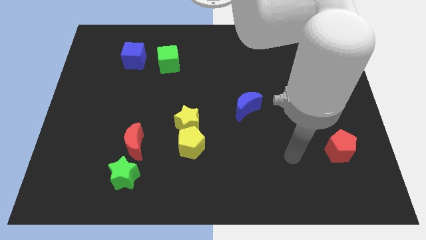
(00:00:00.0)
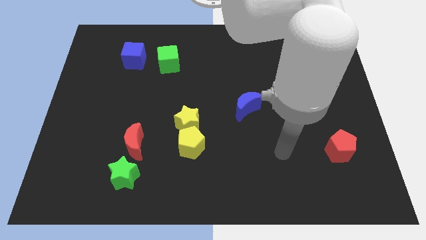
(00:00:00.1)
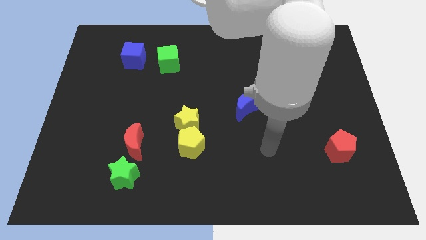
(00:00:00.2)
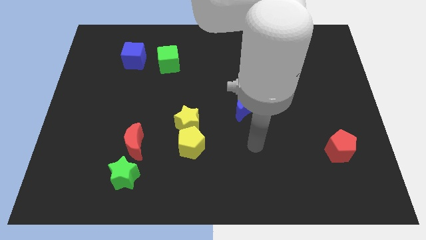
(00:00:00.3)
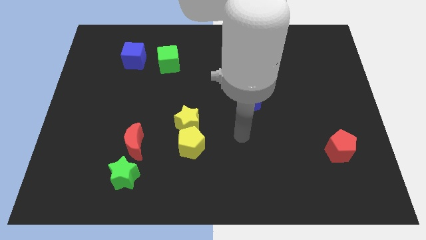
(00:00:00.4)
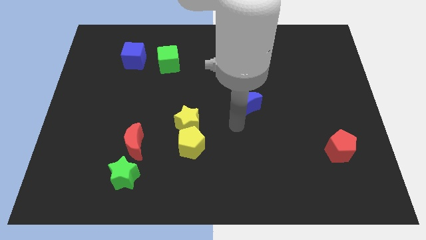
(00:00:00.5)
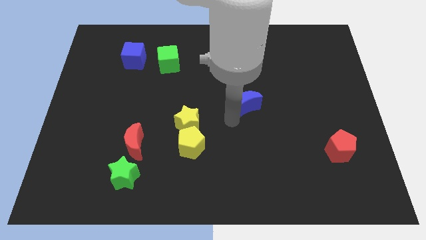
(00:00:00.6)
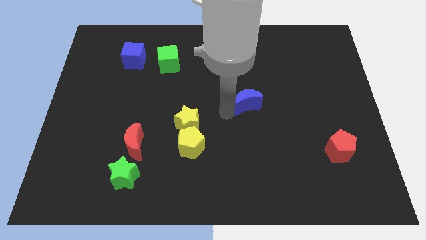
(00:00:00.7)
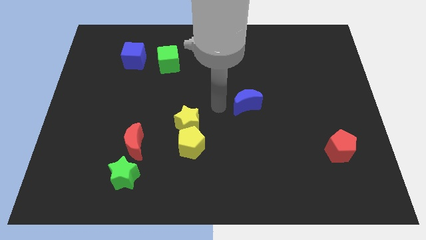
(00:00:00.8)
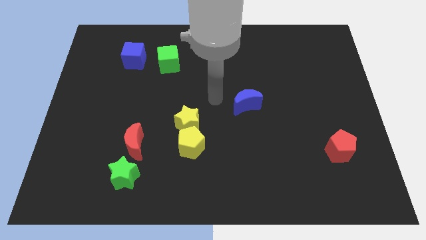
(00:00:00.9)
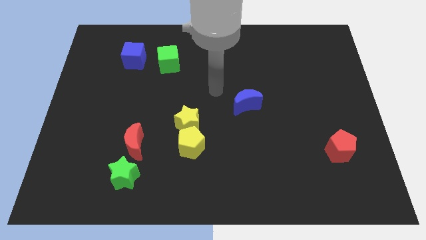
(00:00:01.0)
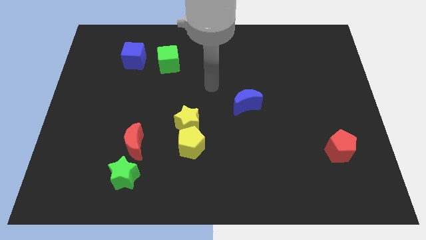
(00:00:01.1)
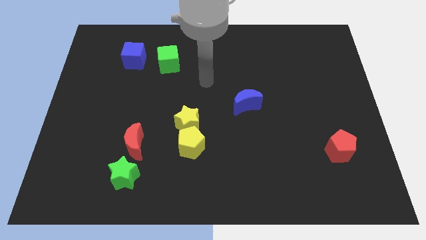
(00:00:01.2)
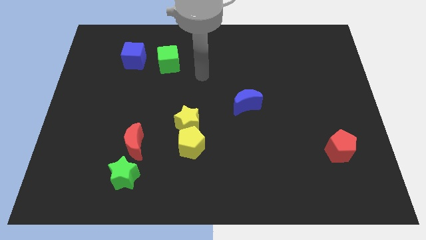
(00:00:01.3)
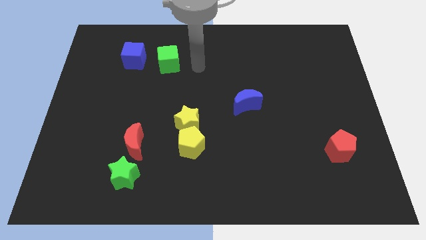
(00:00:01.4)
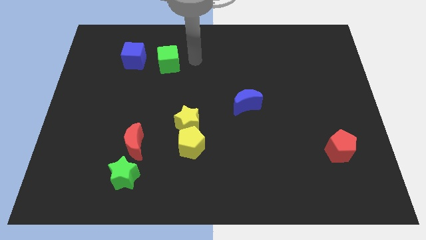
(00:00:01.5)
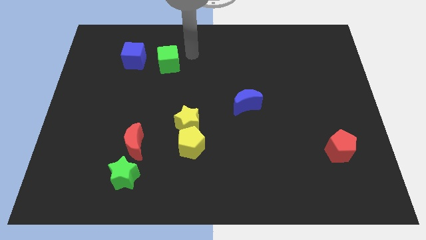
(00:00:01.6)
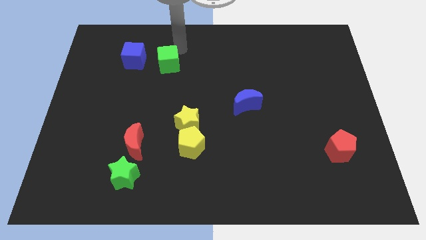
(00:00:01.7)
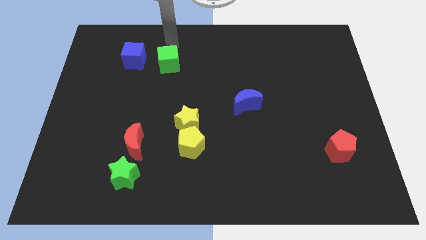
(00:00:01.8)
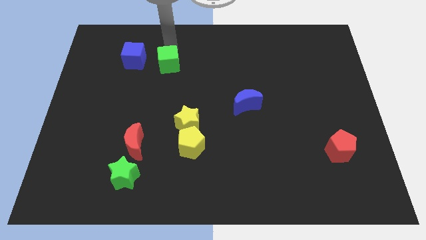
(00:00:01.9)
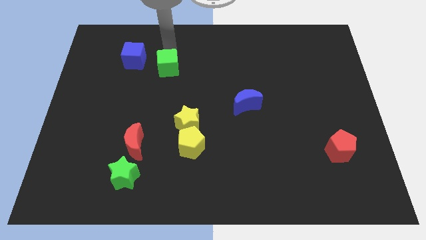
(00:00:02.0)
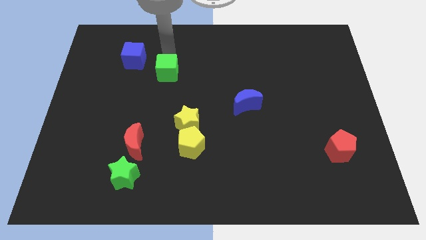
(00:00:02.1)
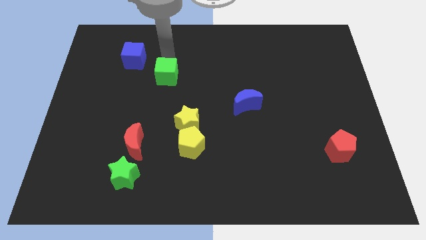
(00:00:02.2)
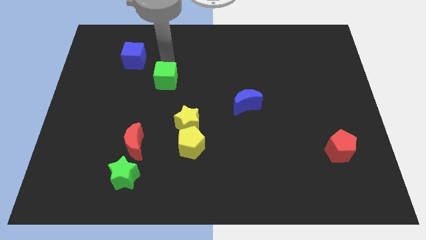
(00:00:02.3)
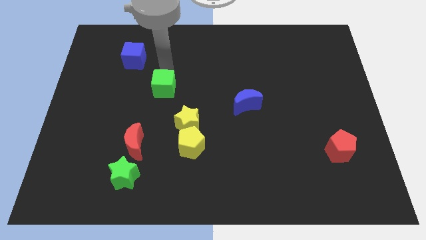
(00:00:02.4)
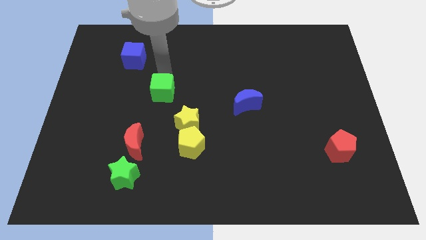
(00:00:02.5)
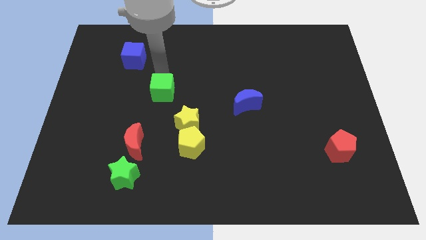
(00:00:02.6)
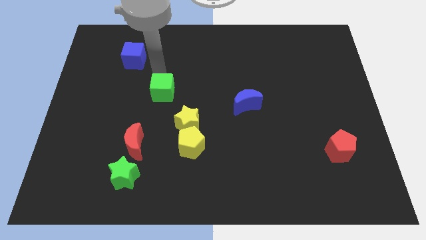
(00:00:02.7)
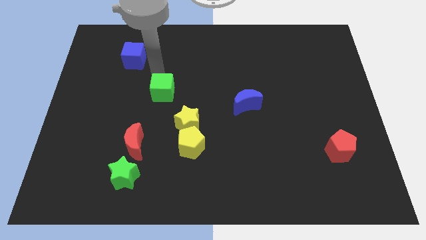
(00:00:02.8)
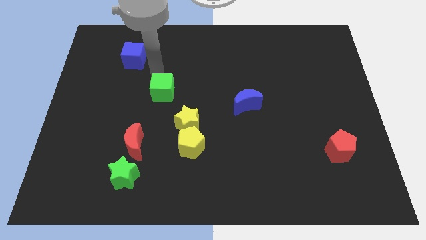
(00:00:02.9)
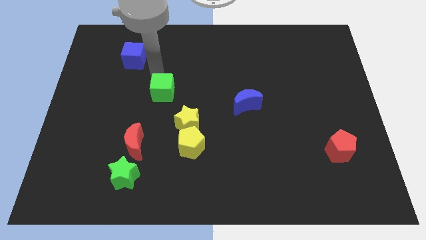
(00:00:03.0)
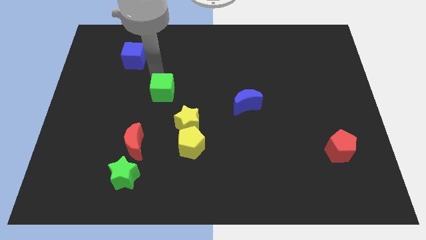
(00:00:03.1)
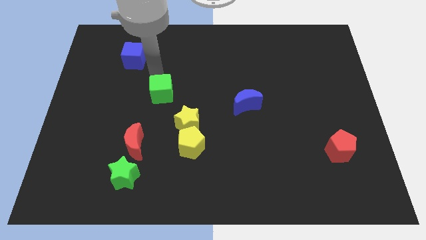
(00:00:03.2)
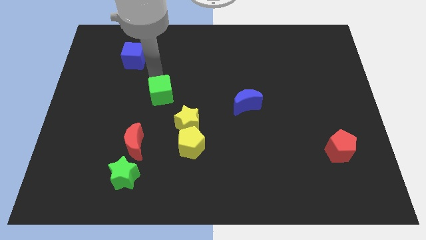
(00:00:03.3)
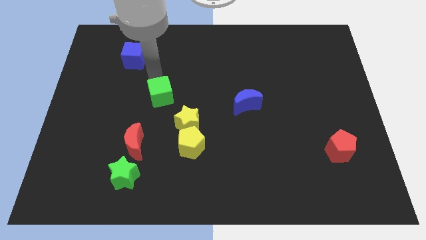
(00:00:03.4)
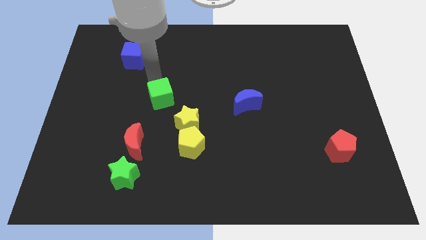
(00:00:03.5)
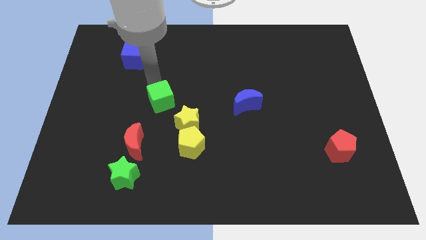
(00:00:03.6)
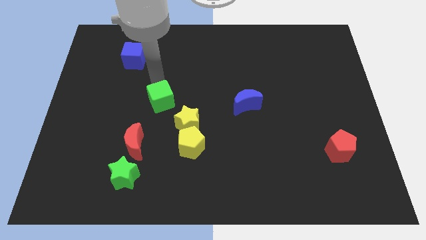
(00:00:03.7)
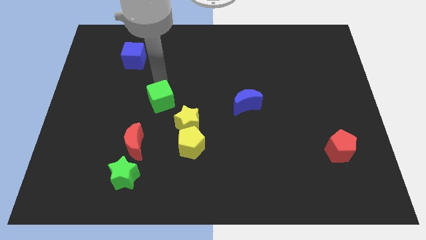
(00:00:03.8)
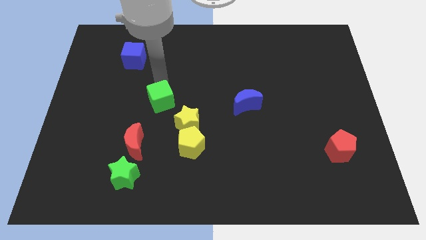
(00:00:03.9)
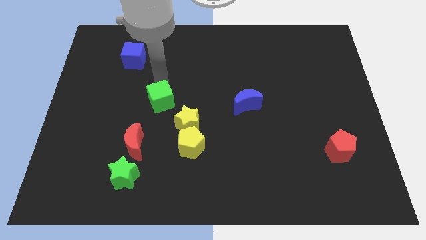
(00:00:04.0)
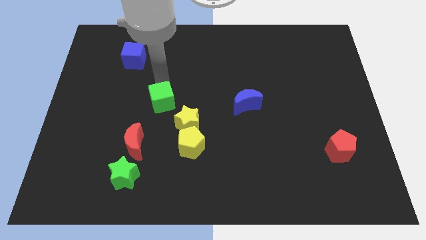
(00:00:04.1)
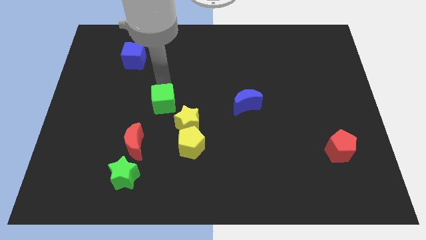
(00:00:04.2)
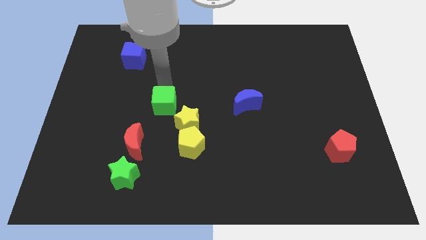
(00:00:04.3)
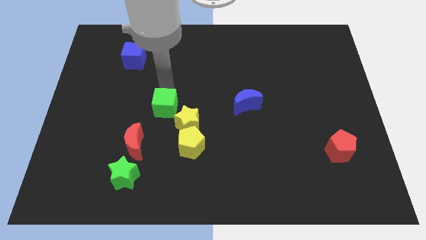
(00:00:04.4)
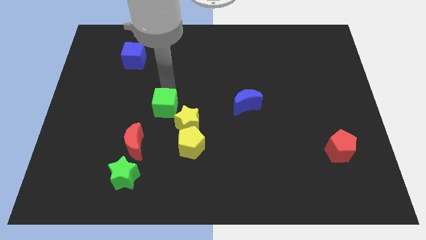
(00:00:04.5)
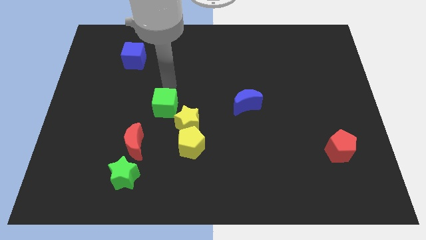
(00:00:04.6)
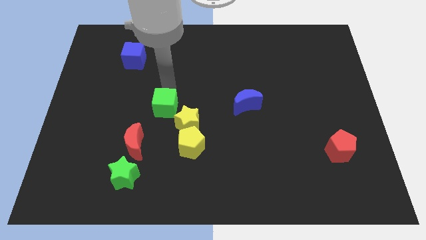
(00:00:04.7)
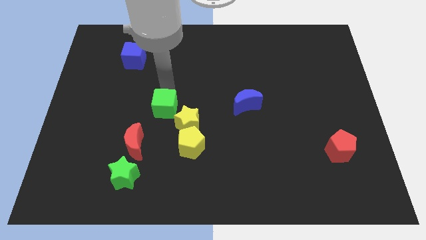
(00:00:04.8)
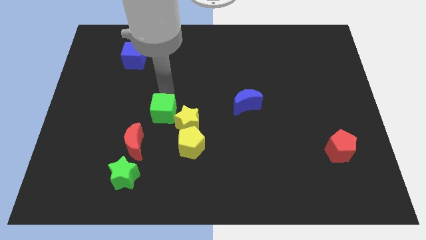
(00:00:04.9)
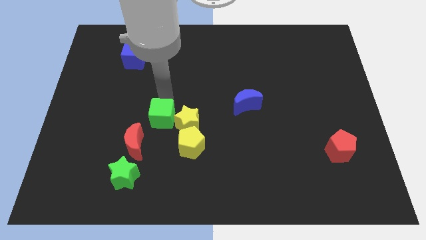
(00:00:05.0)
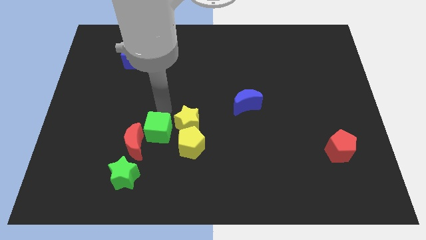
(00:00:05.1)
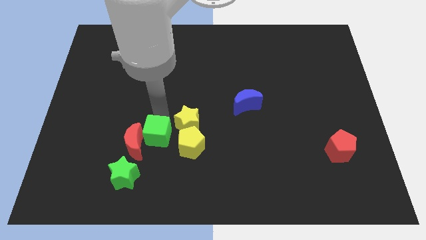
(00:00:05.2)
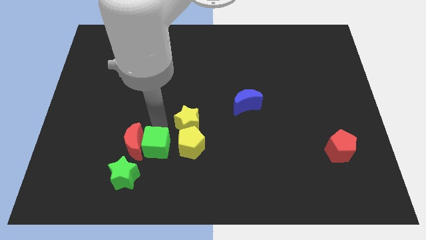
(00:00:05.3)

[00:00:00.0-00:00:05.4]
move the green cube diagonally down and to the right of the red moon

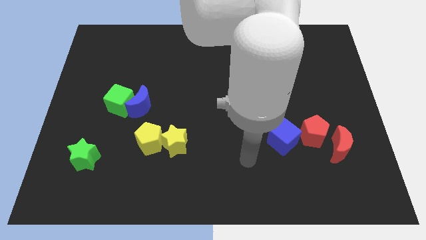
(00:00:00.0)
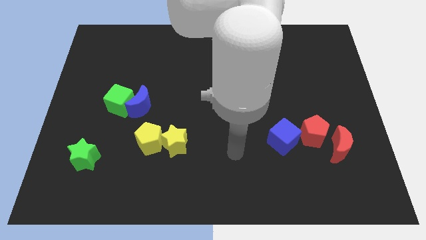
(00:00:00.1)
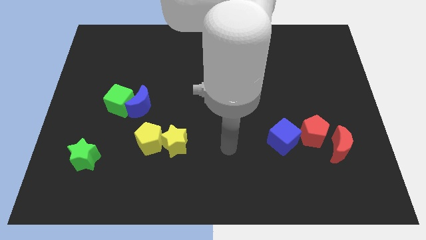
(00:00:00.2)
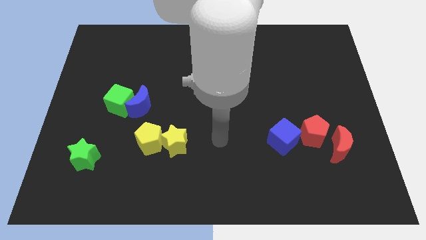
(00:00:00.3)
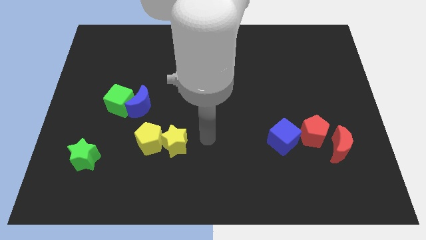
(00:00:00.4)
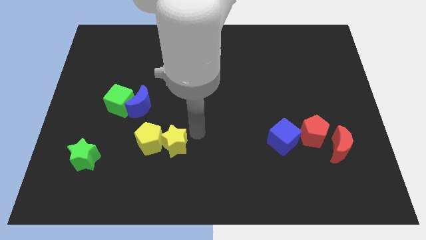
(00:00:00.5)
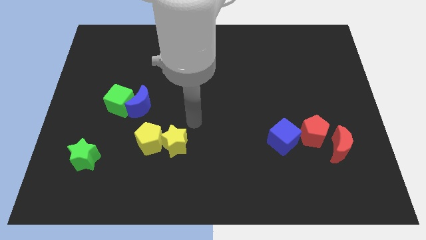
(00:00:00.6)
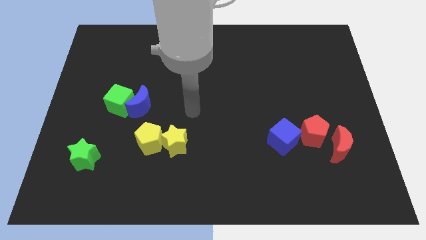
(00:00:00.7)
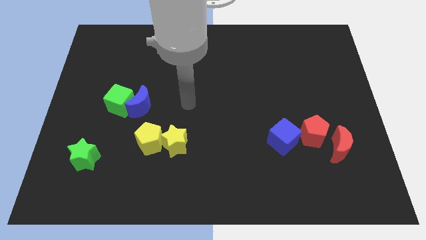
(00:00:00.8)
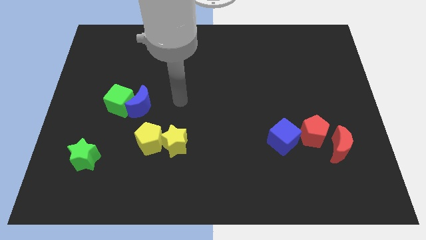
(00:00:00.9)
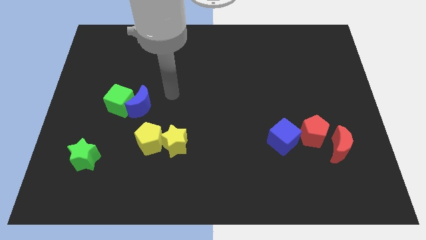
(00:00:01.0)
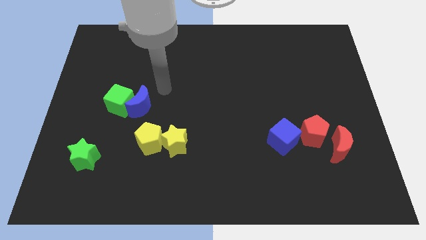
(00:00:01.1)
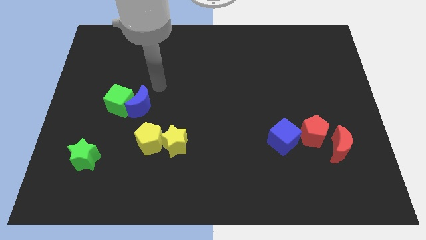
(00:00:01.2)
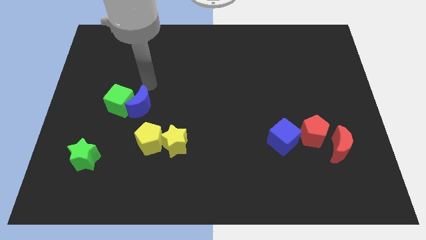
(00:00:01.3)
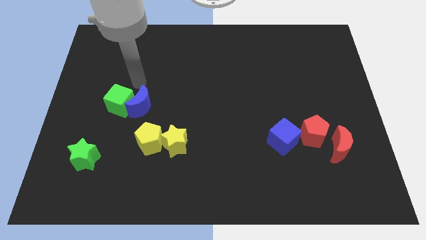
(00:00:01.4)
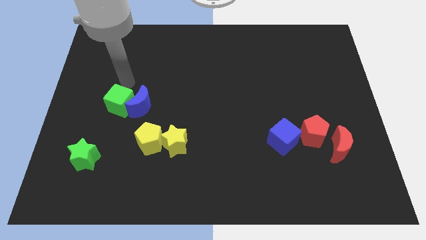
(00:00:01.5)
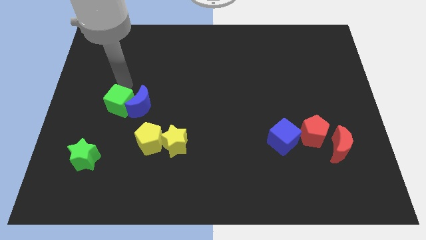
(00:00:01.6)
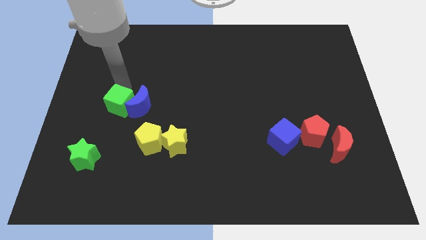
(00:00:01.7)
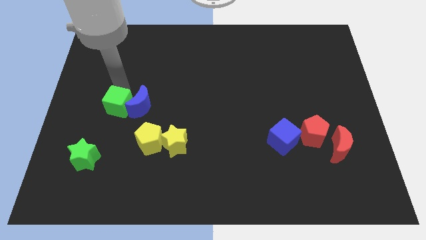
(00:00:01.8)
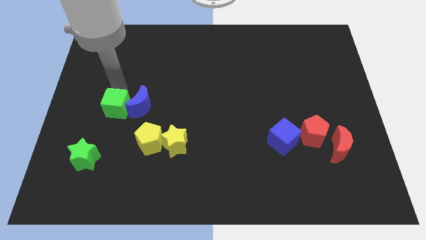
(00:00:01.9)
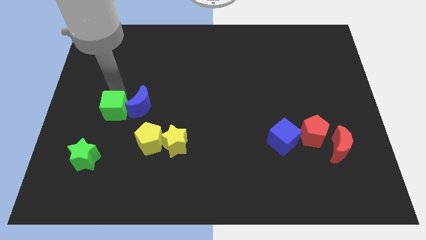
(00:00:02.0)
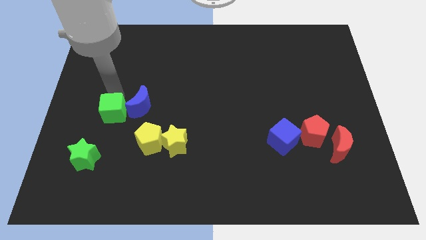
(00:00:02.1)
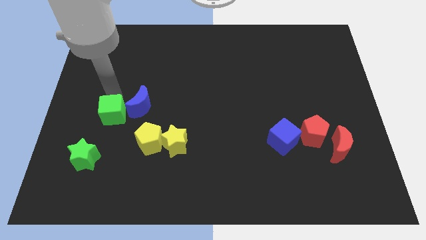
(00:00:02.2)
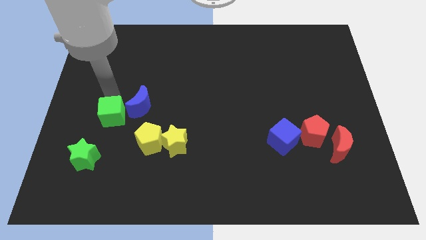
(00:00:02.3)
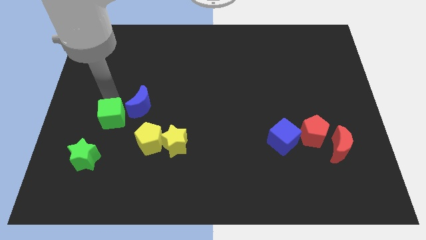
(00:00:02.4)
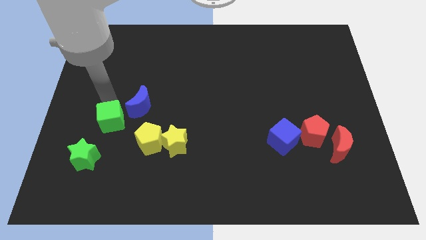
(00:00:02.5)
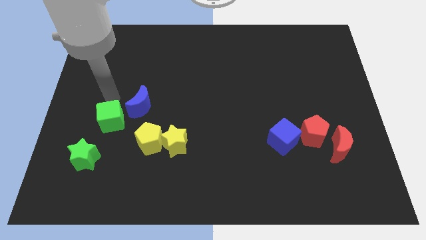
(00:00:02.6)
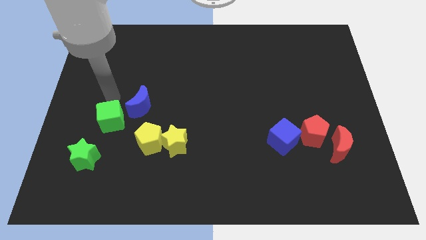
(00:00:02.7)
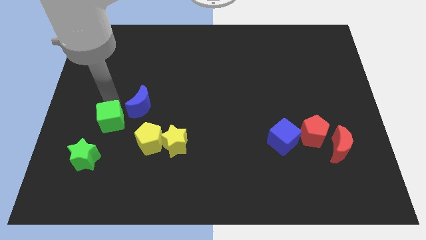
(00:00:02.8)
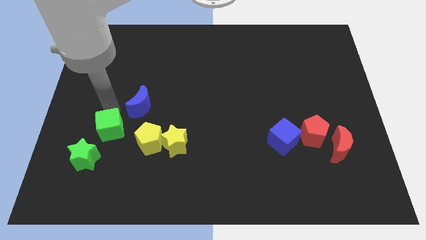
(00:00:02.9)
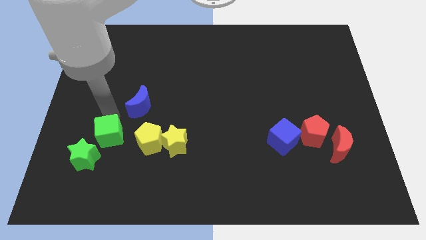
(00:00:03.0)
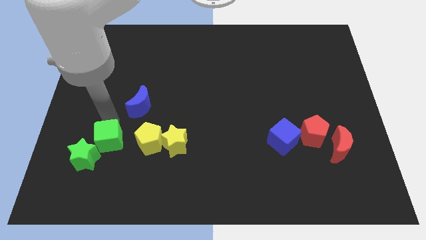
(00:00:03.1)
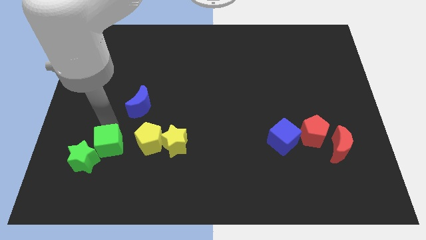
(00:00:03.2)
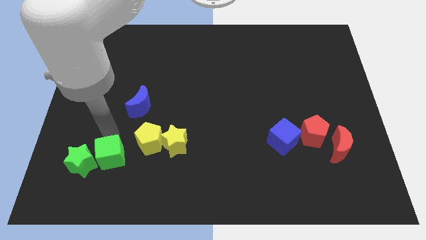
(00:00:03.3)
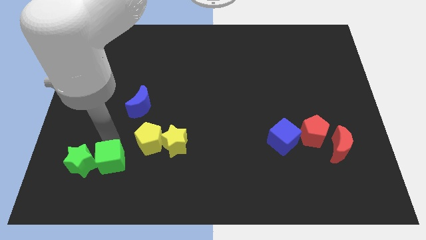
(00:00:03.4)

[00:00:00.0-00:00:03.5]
push the green cube to the bottom right of the green star
